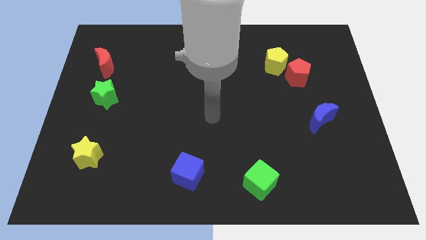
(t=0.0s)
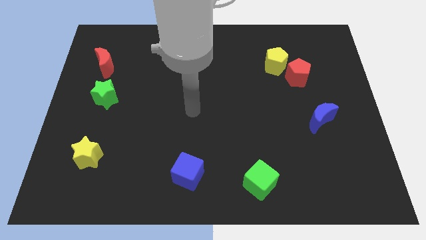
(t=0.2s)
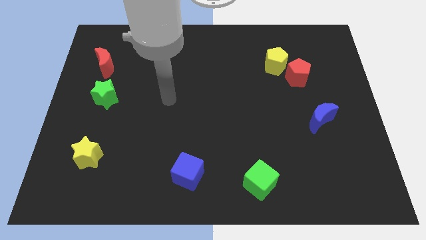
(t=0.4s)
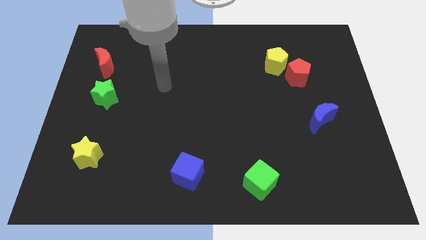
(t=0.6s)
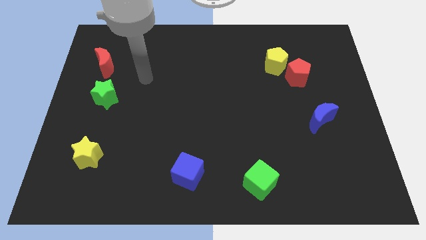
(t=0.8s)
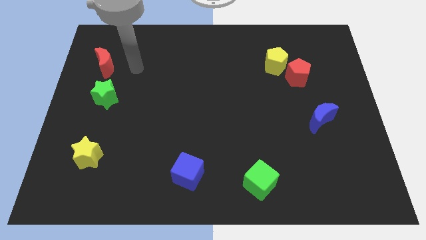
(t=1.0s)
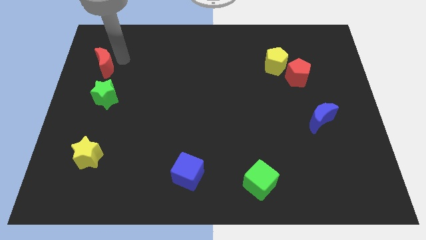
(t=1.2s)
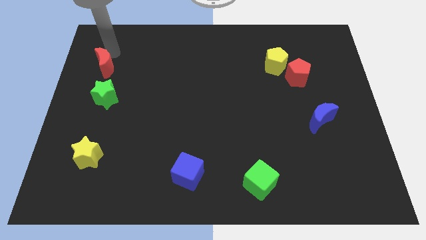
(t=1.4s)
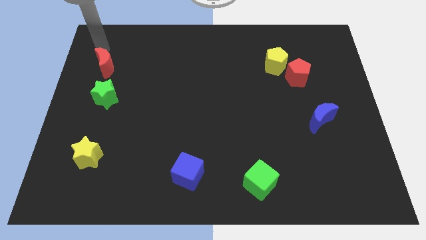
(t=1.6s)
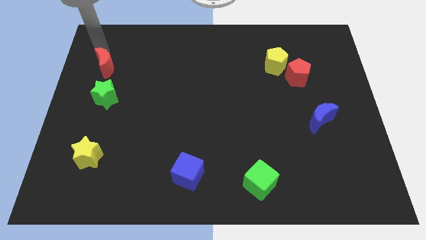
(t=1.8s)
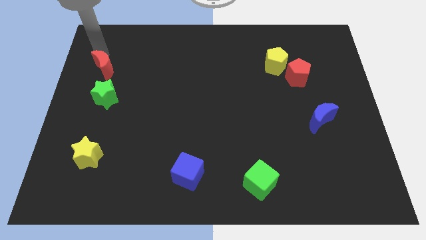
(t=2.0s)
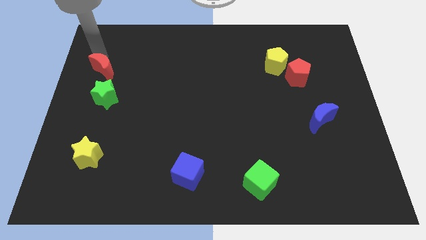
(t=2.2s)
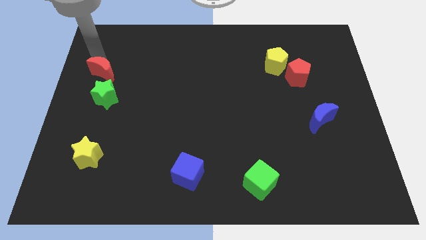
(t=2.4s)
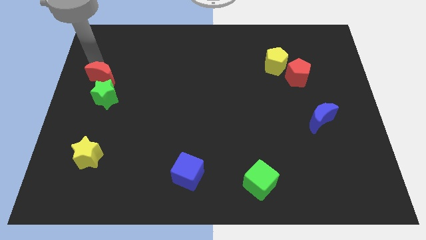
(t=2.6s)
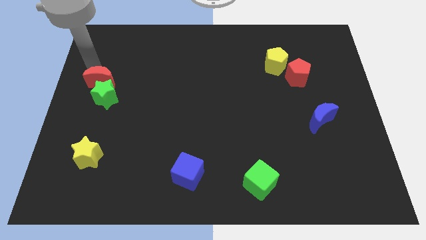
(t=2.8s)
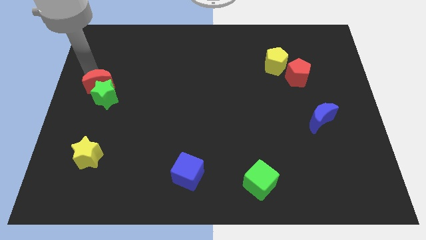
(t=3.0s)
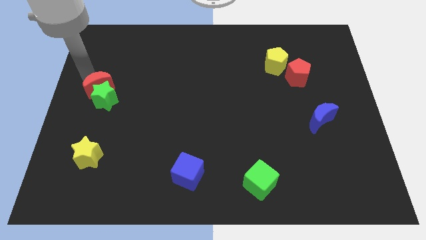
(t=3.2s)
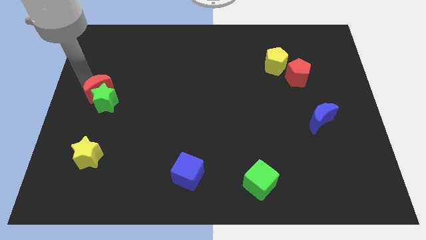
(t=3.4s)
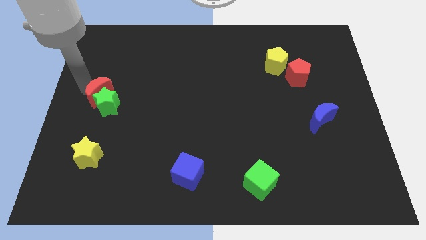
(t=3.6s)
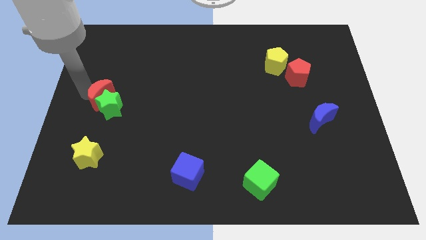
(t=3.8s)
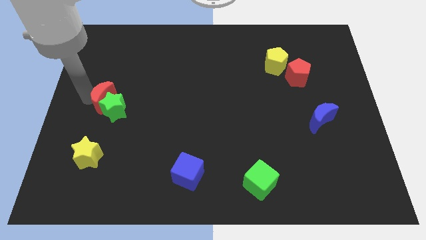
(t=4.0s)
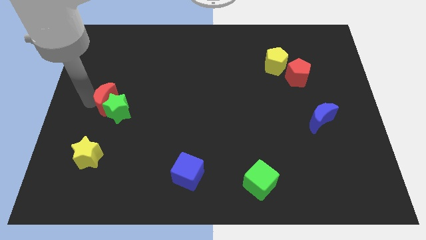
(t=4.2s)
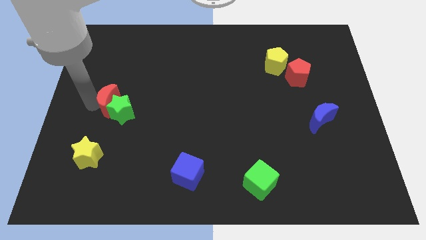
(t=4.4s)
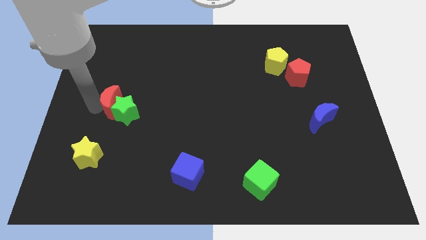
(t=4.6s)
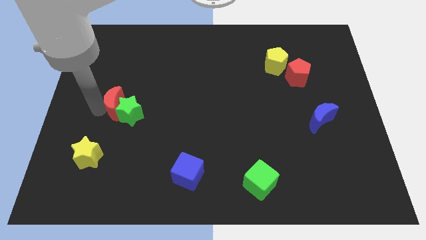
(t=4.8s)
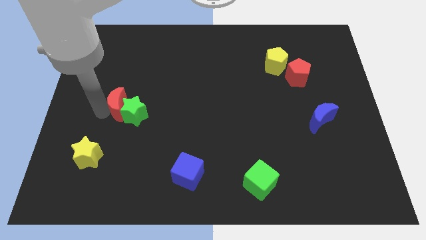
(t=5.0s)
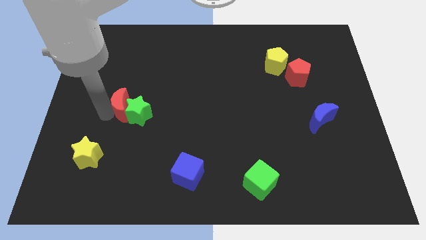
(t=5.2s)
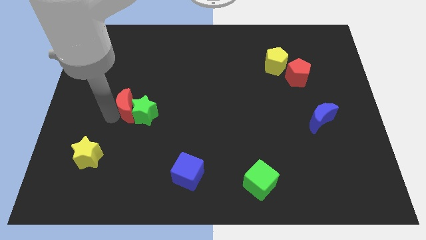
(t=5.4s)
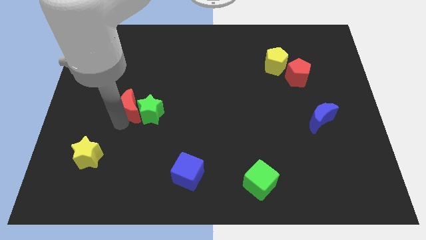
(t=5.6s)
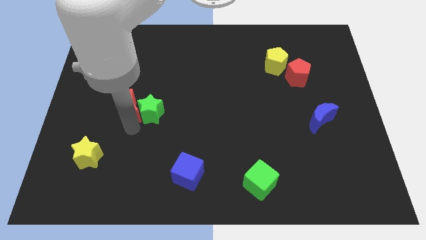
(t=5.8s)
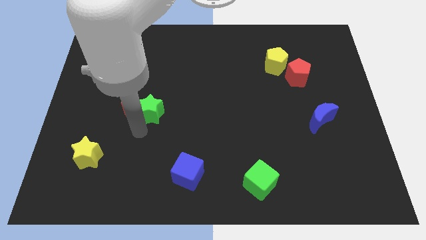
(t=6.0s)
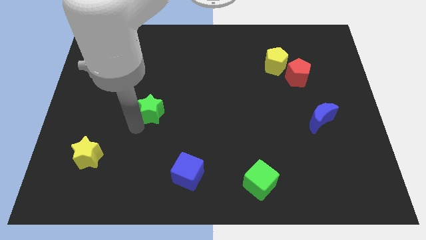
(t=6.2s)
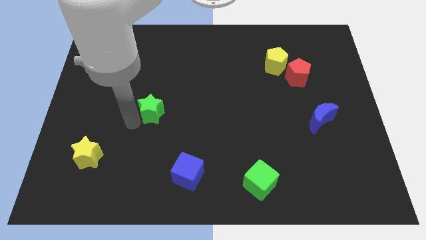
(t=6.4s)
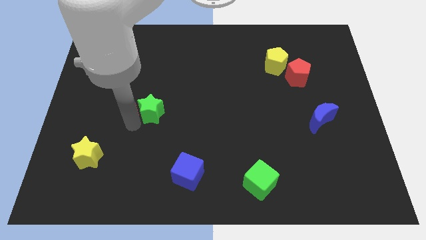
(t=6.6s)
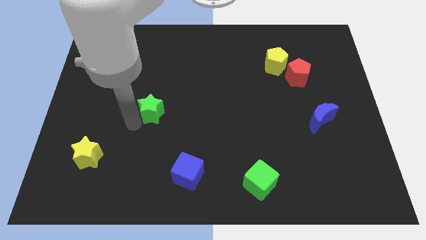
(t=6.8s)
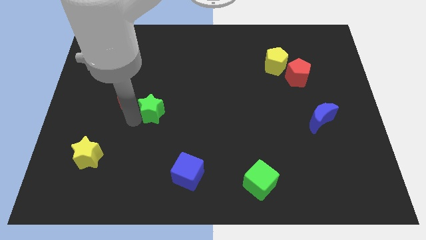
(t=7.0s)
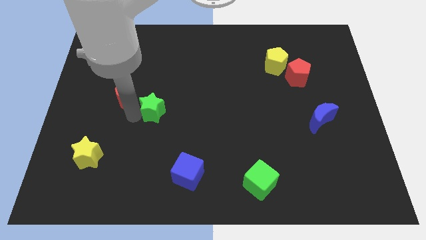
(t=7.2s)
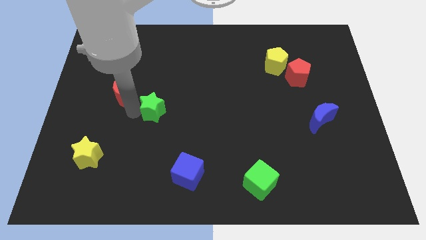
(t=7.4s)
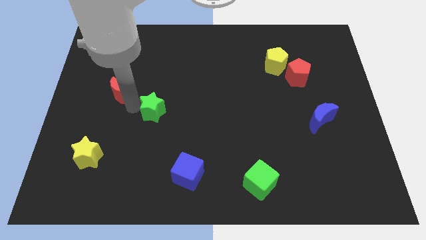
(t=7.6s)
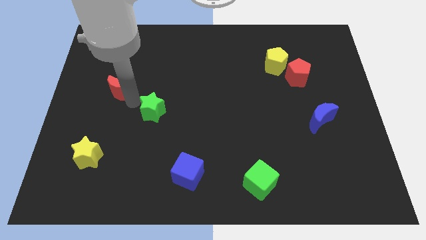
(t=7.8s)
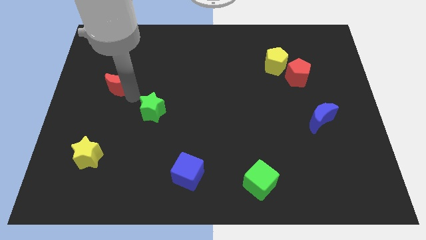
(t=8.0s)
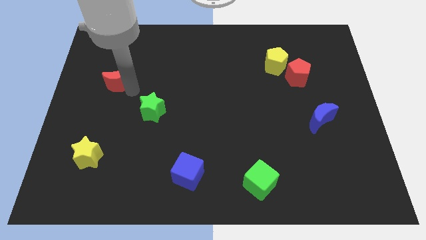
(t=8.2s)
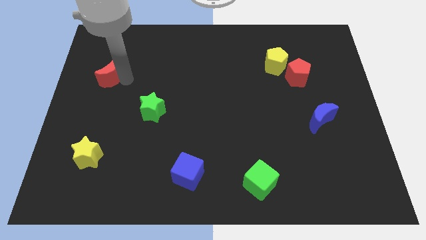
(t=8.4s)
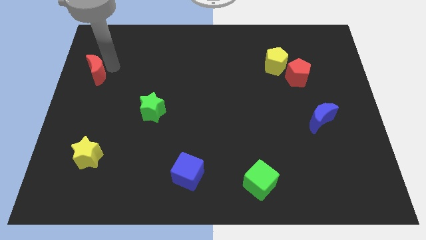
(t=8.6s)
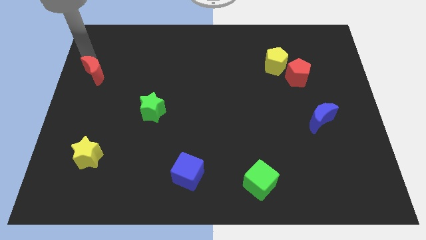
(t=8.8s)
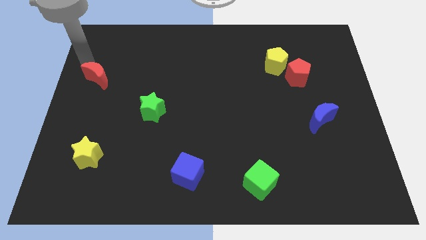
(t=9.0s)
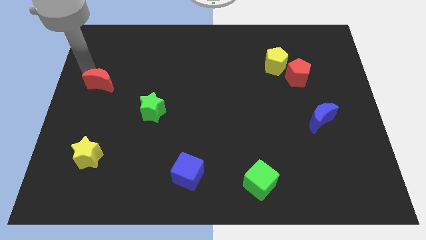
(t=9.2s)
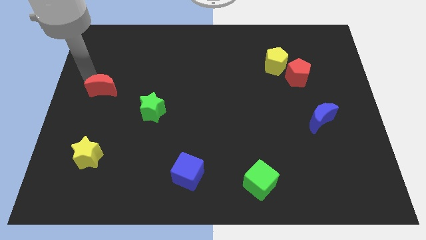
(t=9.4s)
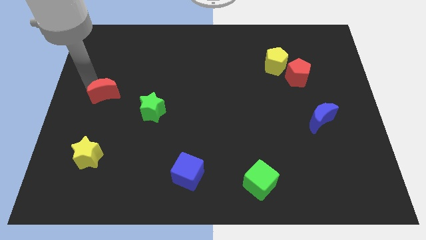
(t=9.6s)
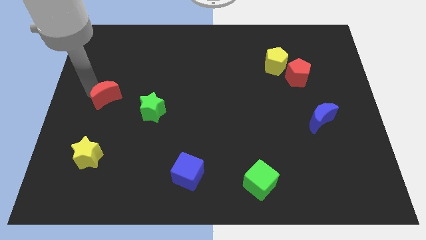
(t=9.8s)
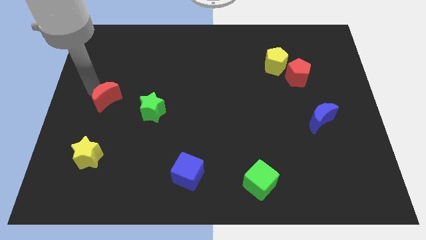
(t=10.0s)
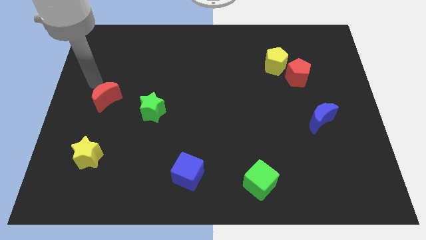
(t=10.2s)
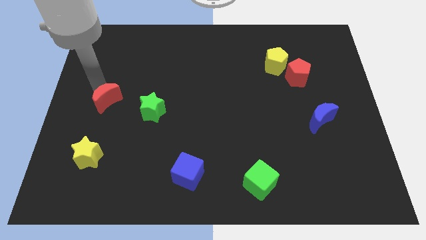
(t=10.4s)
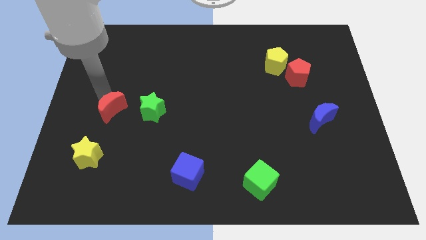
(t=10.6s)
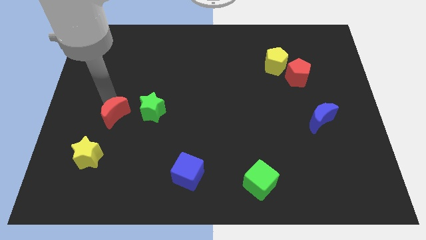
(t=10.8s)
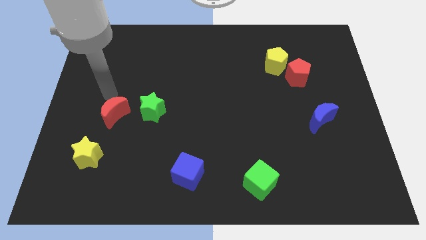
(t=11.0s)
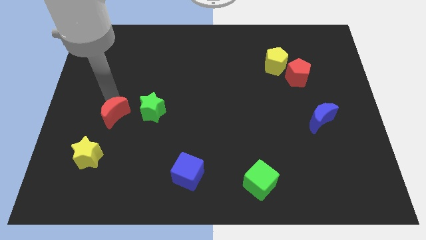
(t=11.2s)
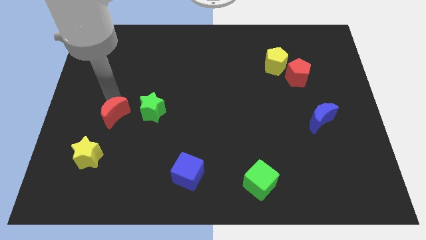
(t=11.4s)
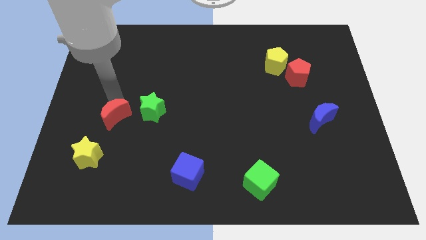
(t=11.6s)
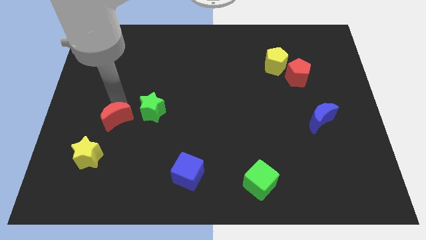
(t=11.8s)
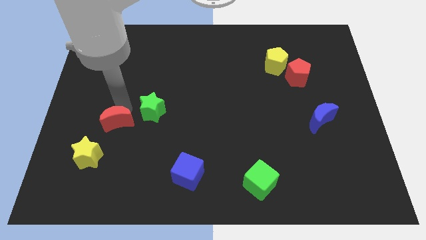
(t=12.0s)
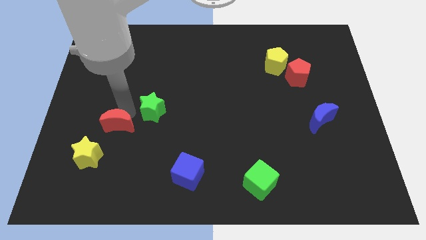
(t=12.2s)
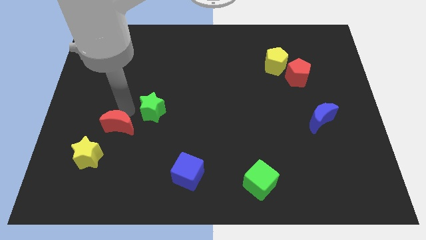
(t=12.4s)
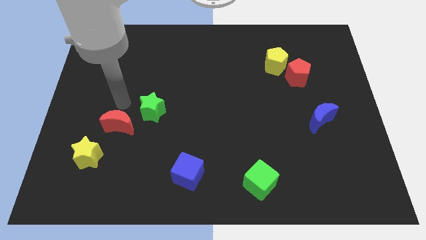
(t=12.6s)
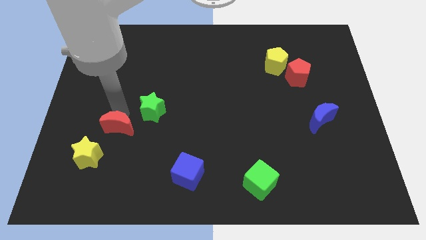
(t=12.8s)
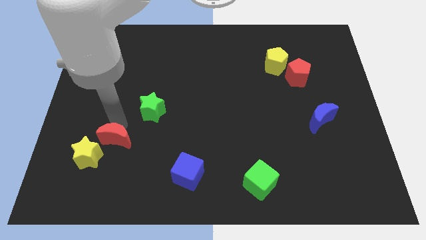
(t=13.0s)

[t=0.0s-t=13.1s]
move the red moon downwards

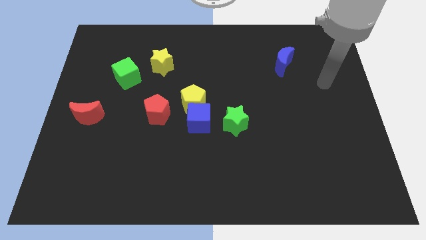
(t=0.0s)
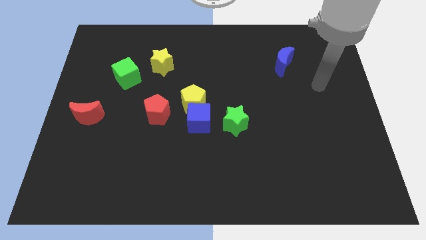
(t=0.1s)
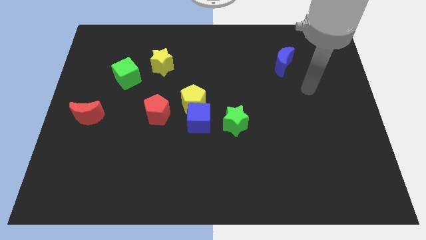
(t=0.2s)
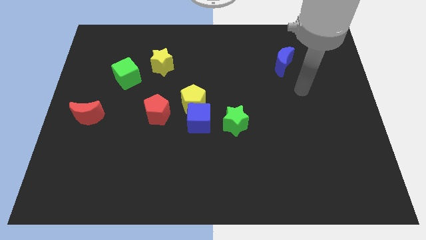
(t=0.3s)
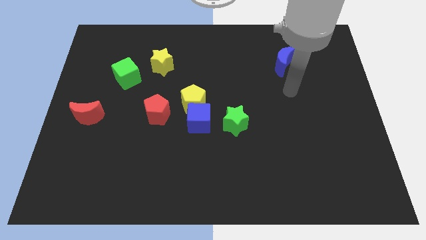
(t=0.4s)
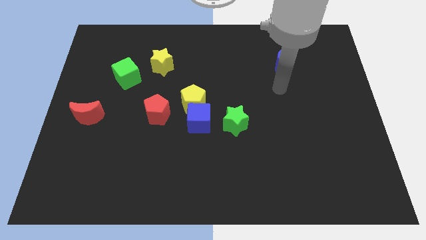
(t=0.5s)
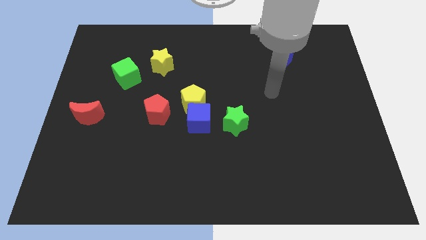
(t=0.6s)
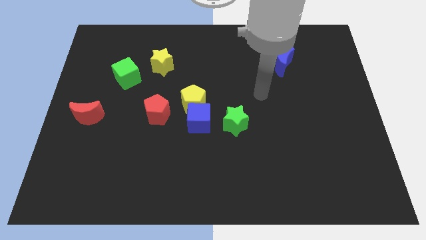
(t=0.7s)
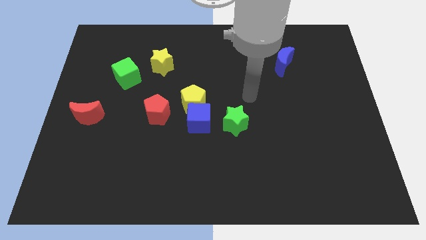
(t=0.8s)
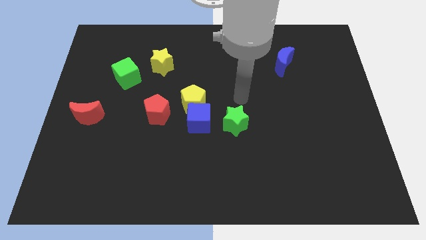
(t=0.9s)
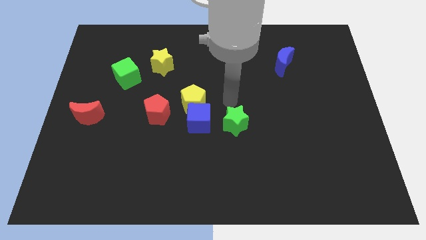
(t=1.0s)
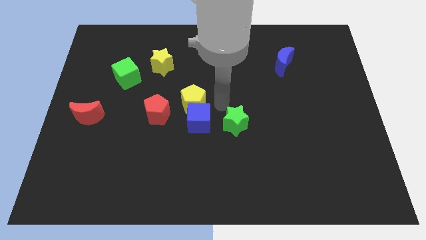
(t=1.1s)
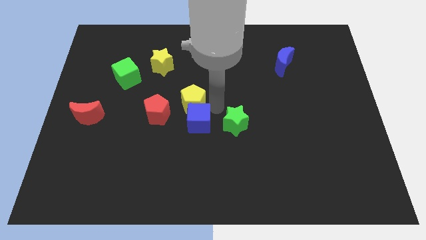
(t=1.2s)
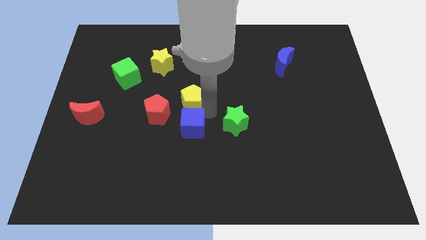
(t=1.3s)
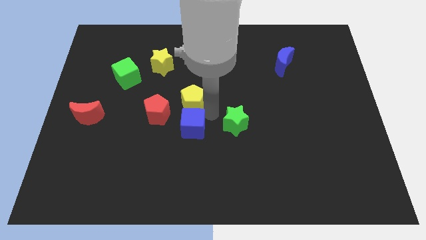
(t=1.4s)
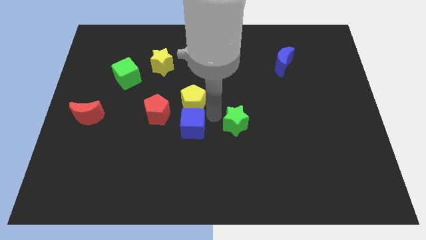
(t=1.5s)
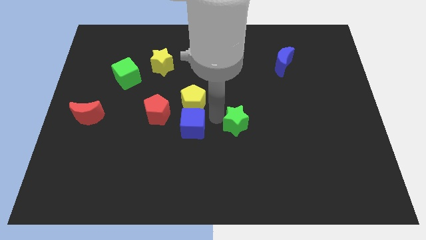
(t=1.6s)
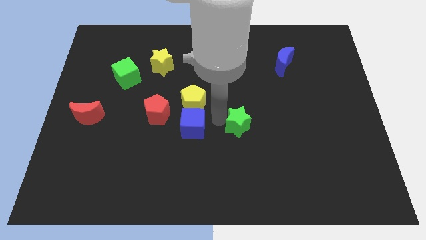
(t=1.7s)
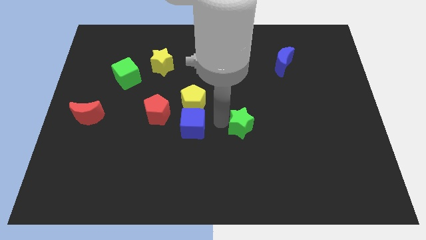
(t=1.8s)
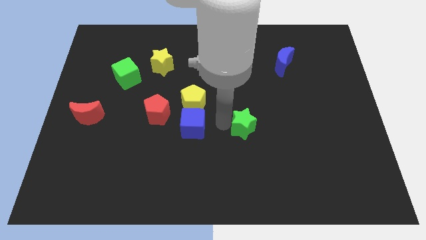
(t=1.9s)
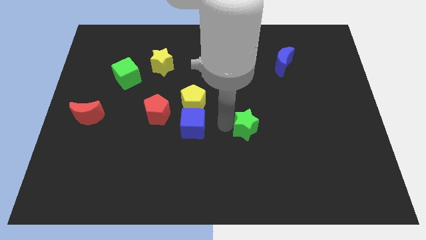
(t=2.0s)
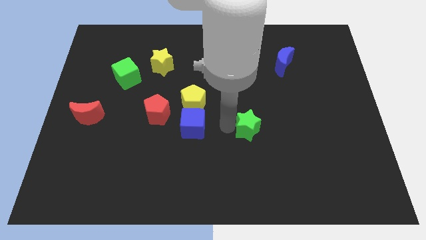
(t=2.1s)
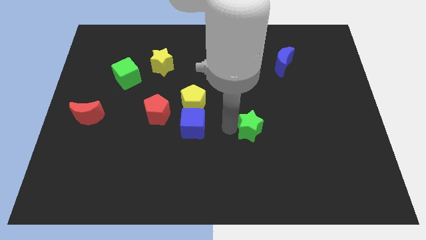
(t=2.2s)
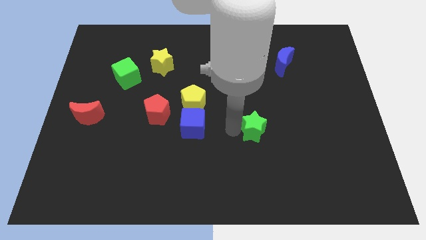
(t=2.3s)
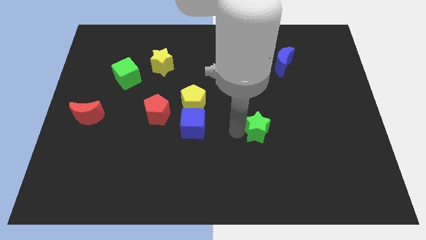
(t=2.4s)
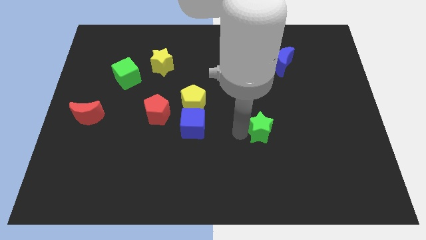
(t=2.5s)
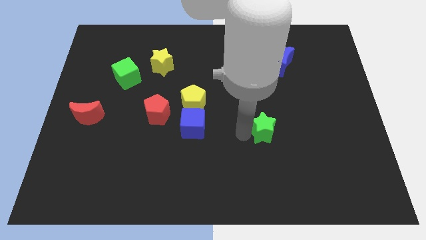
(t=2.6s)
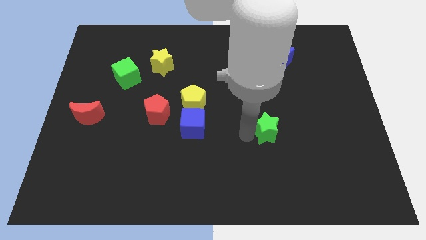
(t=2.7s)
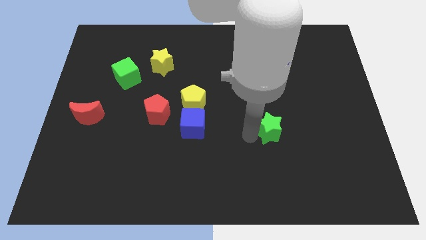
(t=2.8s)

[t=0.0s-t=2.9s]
move the green star somewhat to the right
